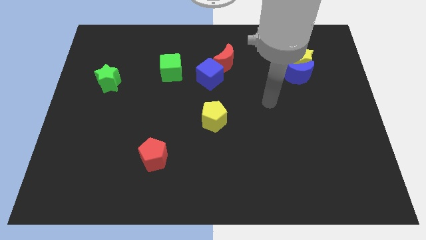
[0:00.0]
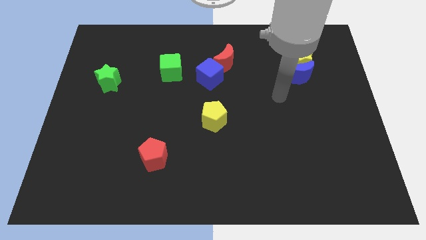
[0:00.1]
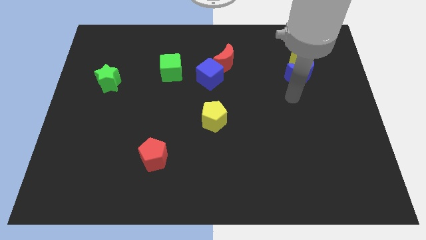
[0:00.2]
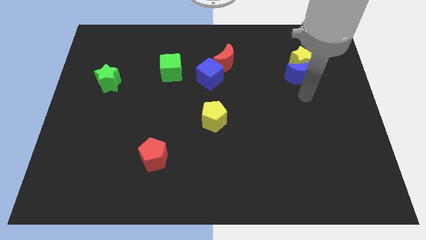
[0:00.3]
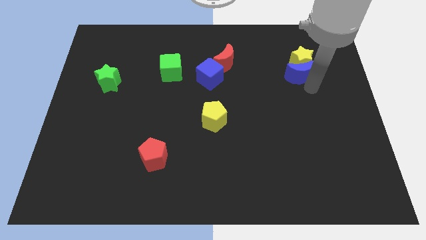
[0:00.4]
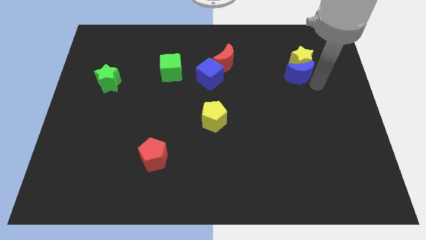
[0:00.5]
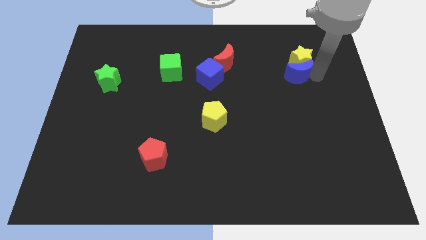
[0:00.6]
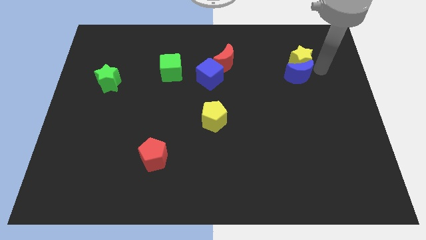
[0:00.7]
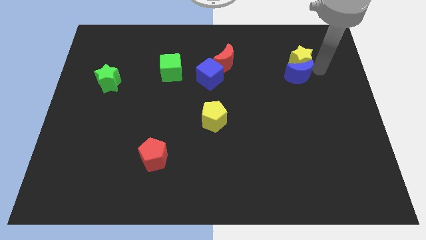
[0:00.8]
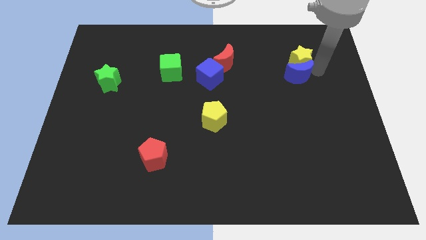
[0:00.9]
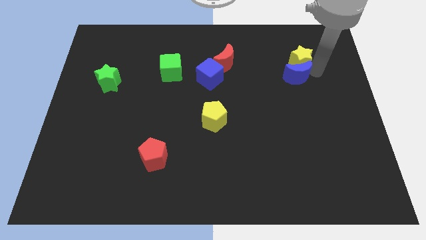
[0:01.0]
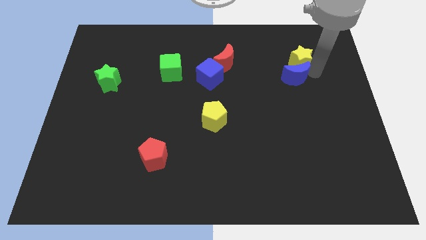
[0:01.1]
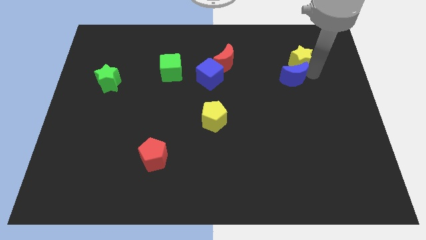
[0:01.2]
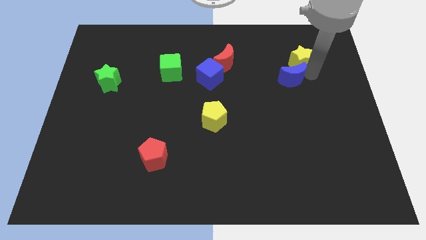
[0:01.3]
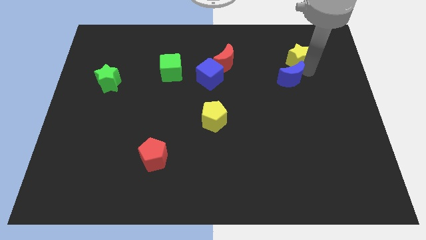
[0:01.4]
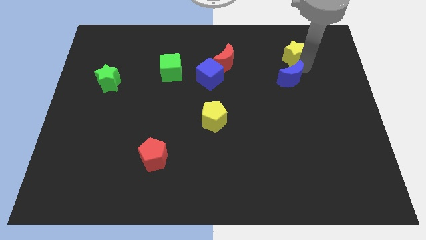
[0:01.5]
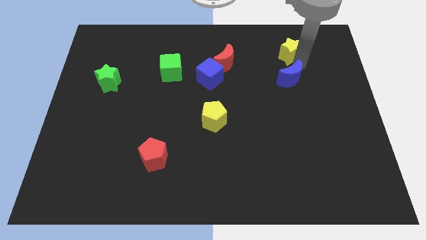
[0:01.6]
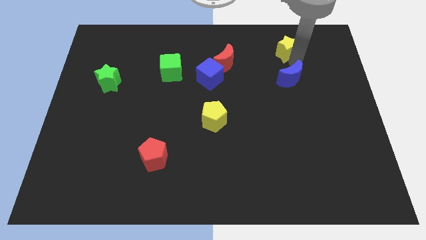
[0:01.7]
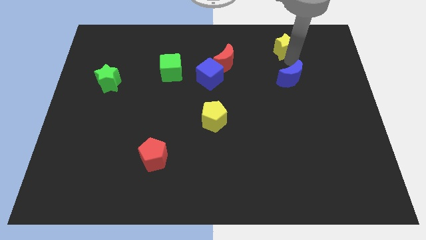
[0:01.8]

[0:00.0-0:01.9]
pull the blue moon apart from the yellow star

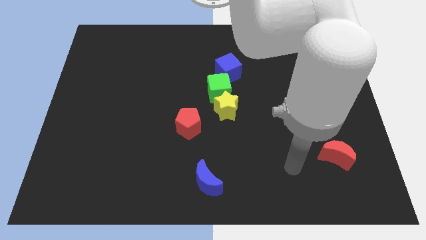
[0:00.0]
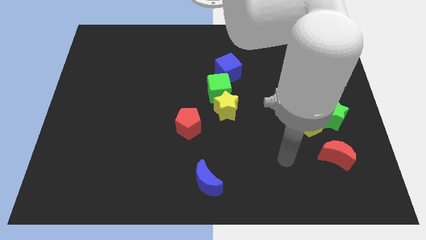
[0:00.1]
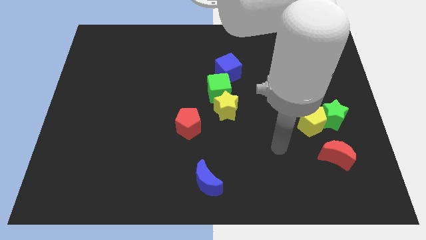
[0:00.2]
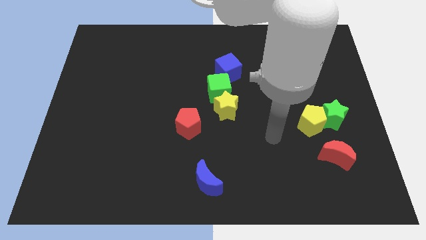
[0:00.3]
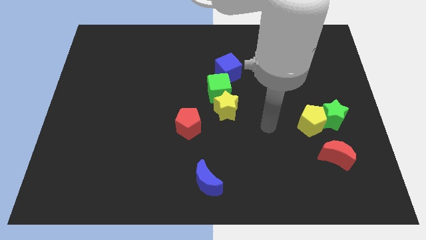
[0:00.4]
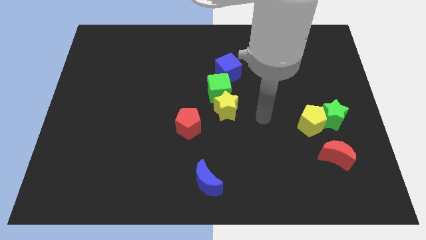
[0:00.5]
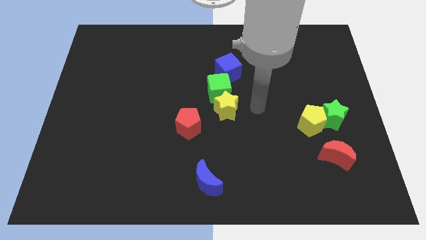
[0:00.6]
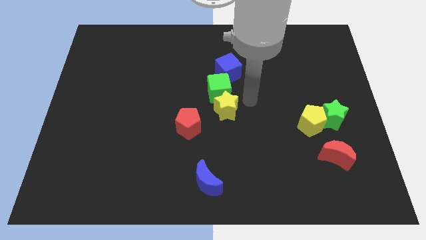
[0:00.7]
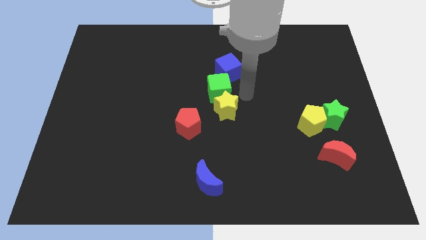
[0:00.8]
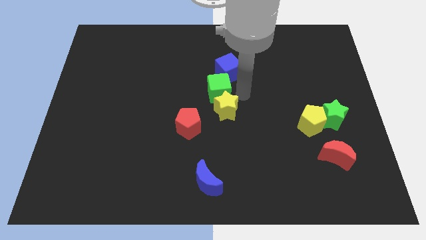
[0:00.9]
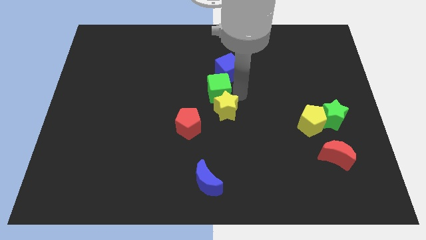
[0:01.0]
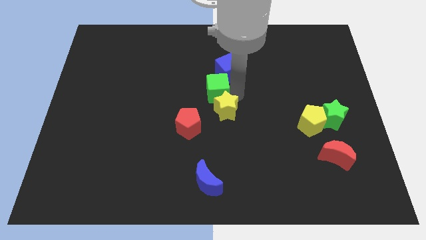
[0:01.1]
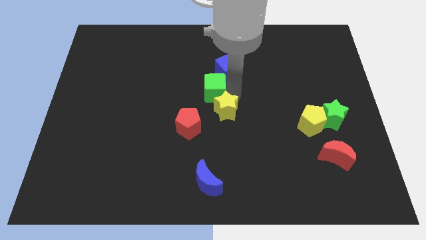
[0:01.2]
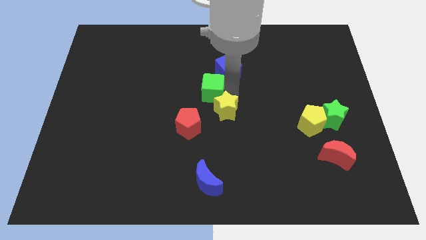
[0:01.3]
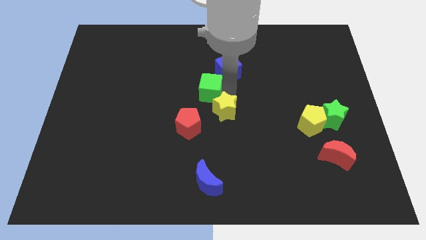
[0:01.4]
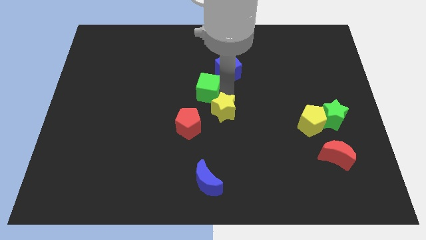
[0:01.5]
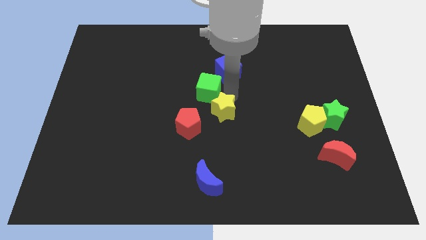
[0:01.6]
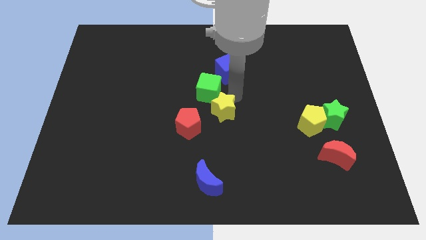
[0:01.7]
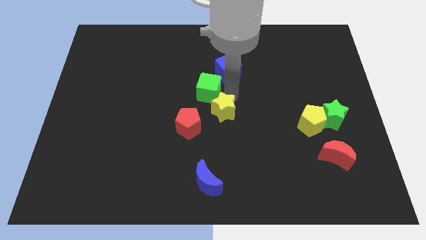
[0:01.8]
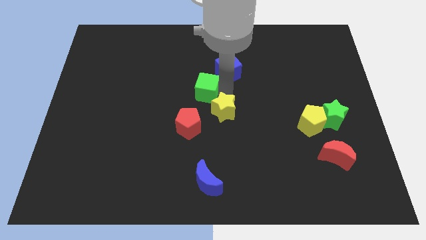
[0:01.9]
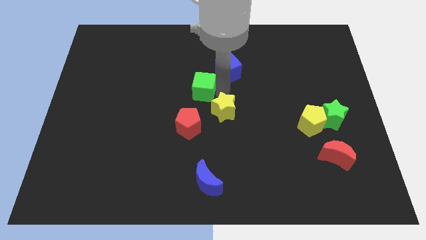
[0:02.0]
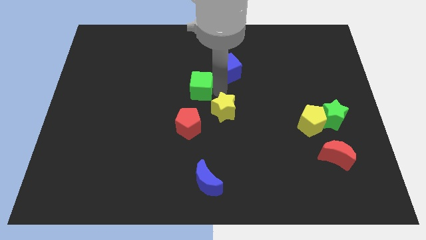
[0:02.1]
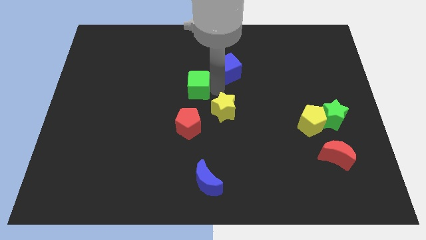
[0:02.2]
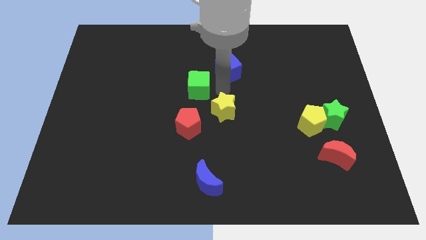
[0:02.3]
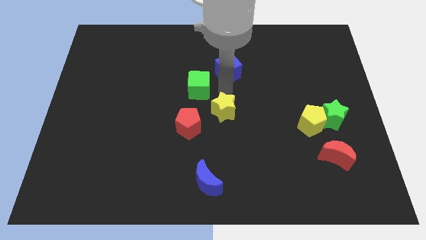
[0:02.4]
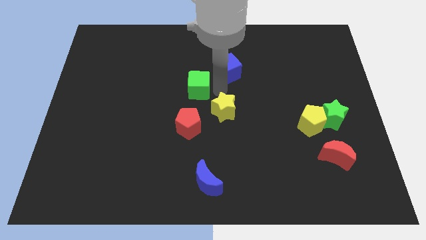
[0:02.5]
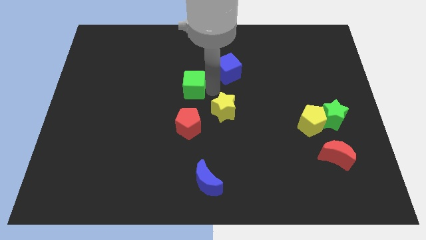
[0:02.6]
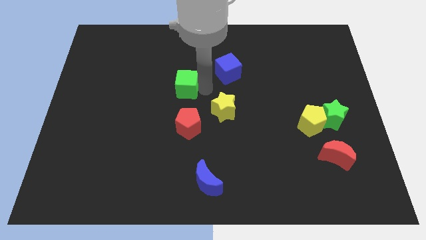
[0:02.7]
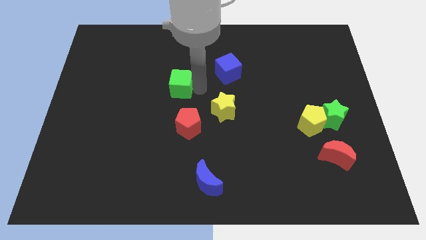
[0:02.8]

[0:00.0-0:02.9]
pull the green cube apart from the yellow star and blue cube

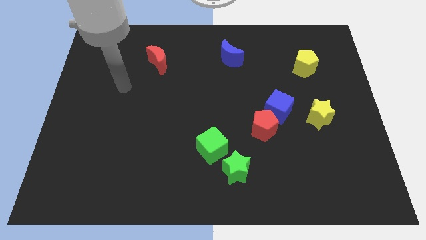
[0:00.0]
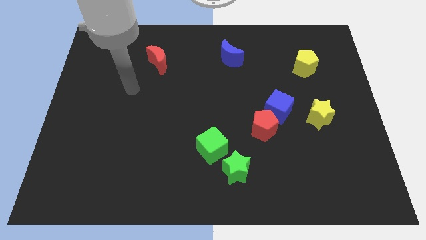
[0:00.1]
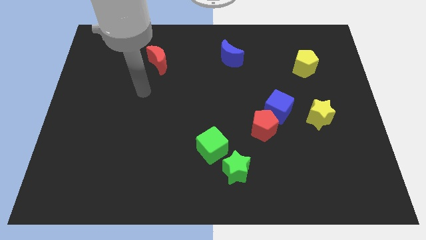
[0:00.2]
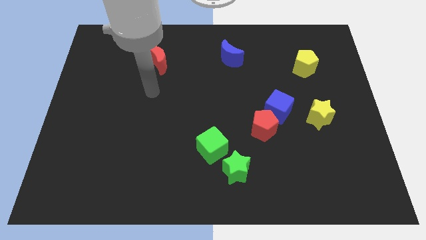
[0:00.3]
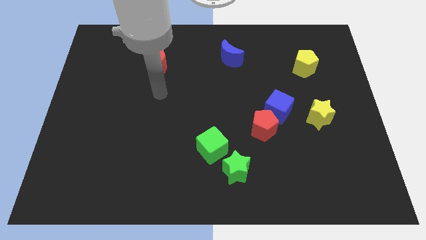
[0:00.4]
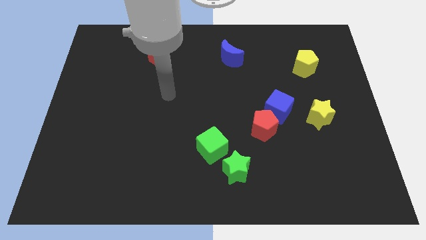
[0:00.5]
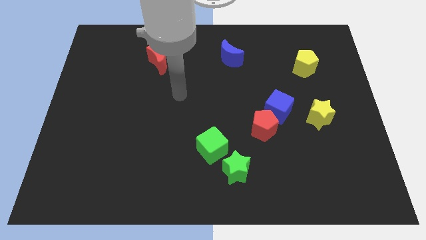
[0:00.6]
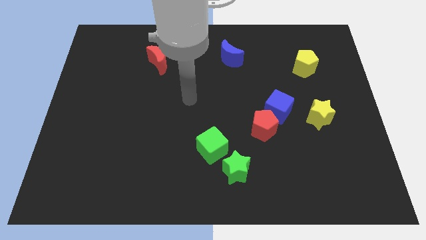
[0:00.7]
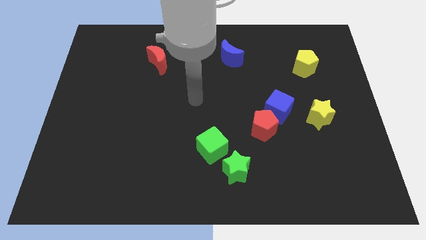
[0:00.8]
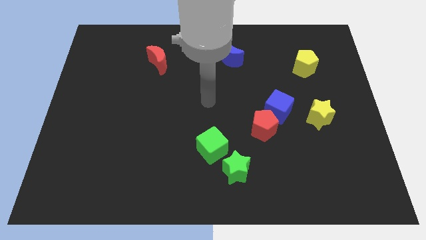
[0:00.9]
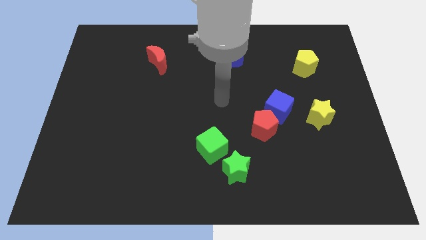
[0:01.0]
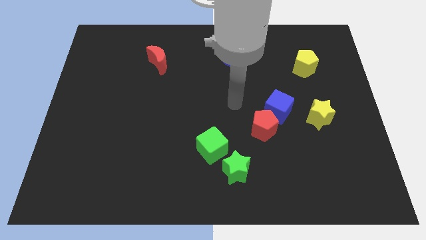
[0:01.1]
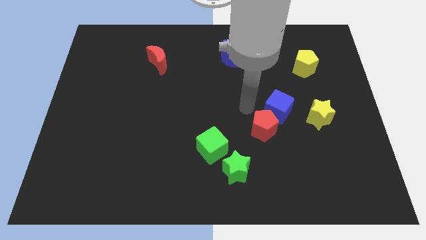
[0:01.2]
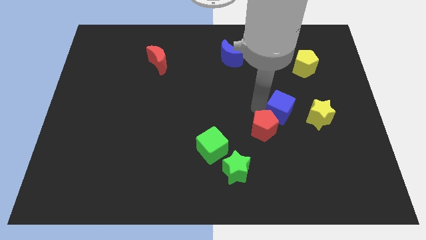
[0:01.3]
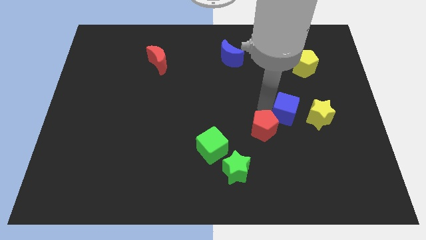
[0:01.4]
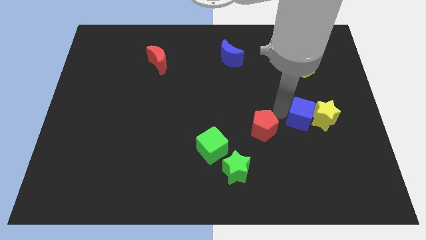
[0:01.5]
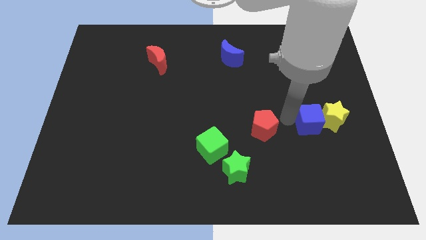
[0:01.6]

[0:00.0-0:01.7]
move the red pentagon away from the blue cube

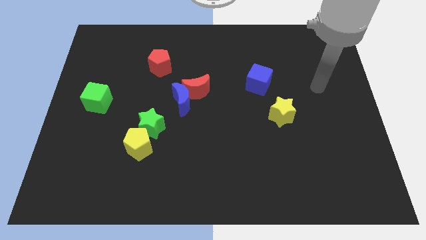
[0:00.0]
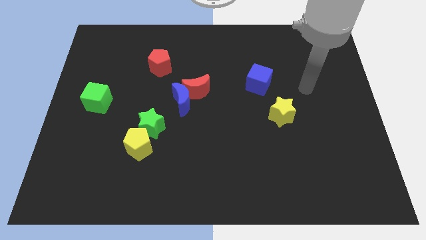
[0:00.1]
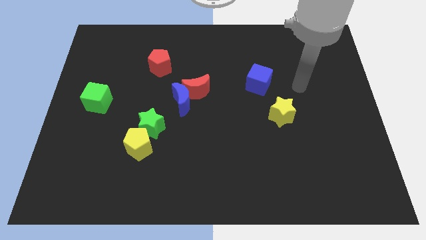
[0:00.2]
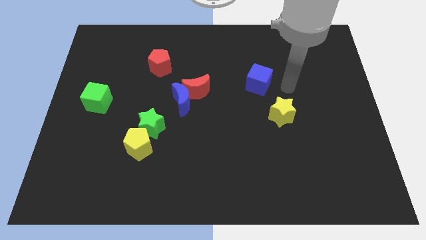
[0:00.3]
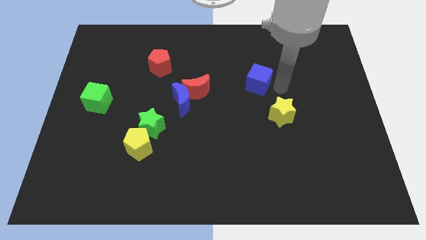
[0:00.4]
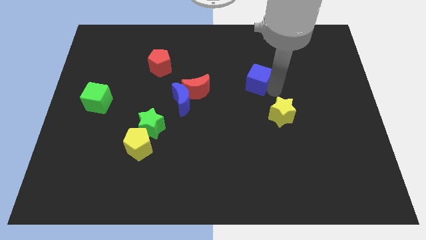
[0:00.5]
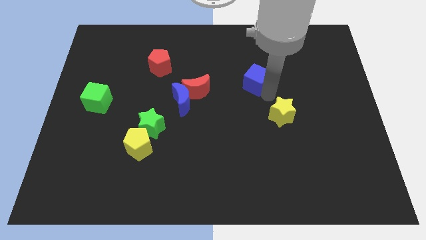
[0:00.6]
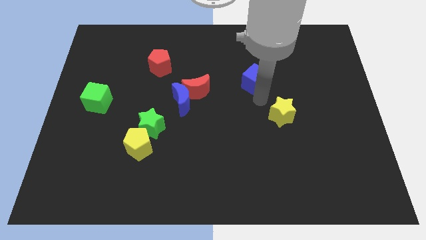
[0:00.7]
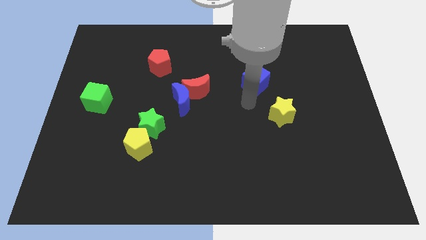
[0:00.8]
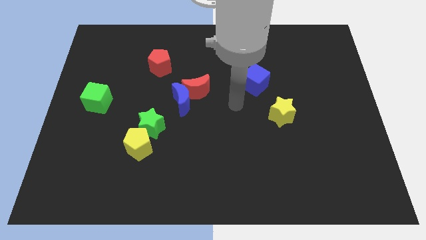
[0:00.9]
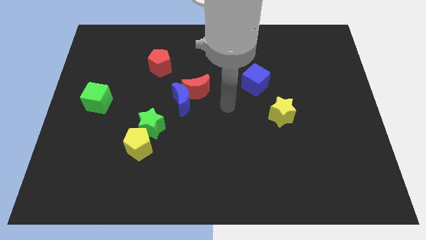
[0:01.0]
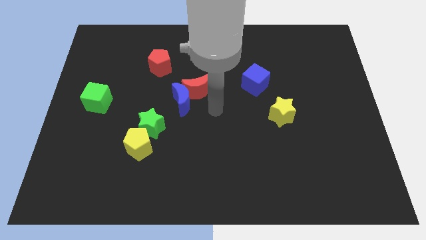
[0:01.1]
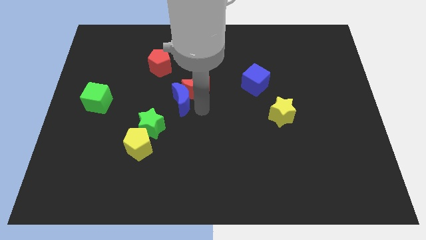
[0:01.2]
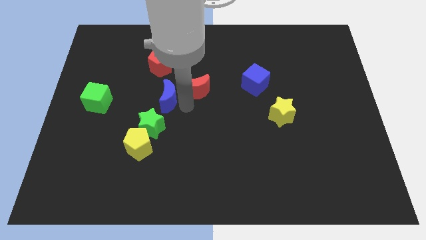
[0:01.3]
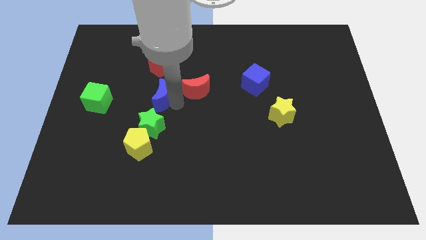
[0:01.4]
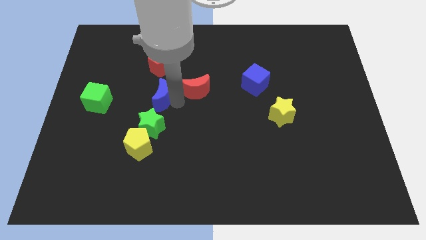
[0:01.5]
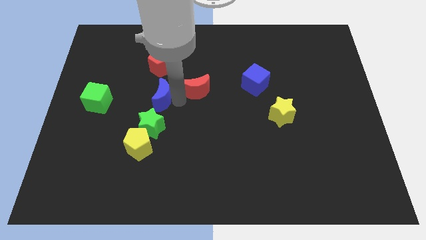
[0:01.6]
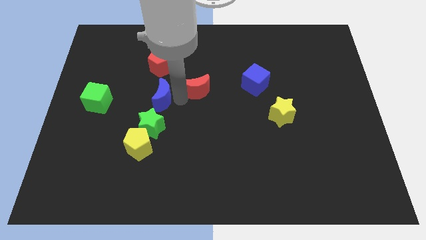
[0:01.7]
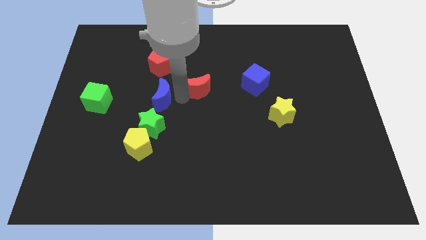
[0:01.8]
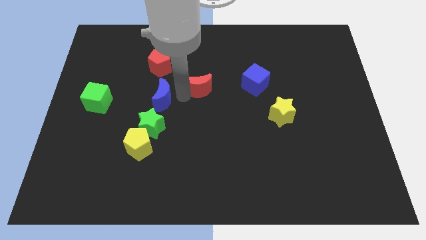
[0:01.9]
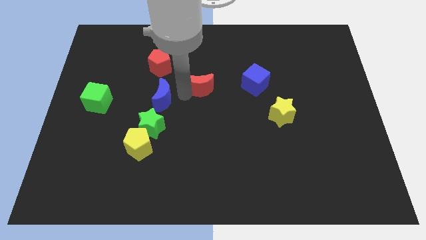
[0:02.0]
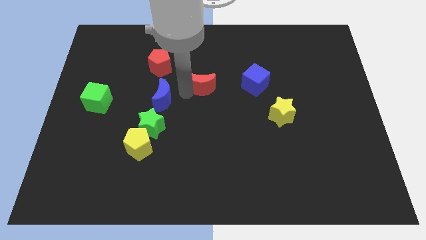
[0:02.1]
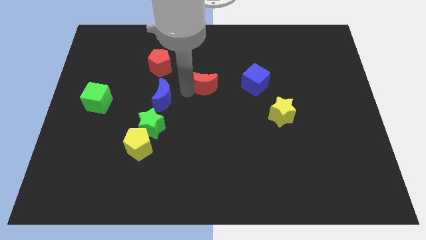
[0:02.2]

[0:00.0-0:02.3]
separate the red moon from the blue moon

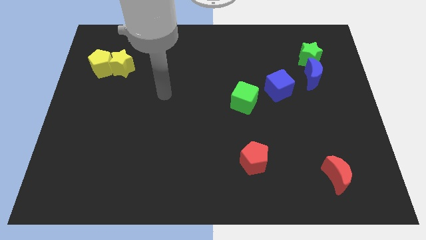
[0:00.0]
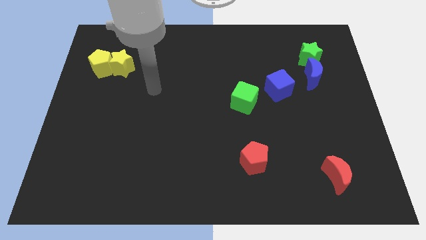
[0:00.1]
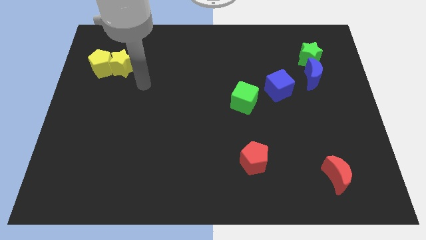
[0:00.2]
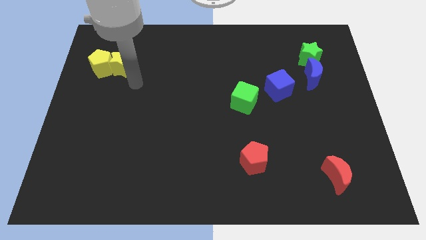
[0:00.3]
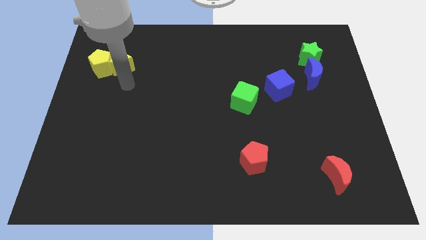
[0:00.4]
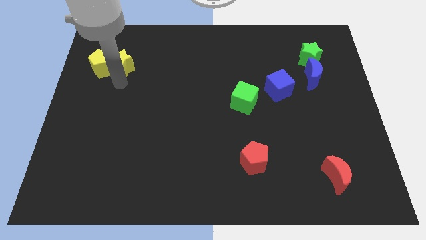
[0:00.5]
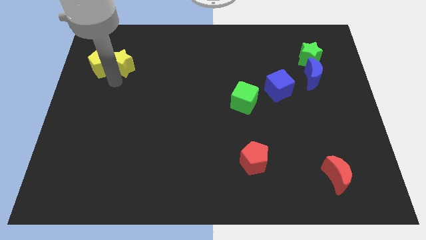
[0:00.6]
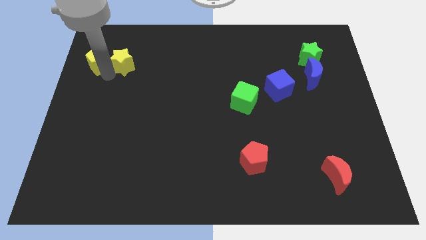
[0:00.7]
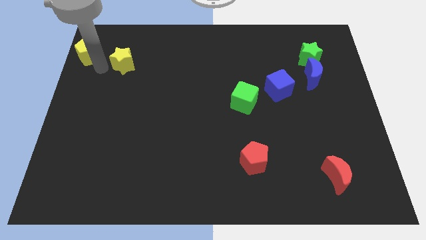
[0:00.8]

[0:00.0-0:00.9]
separate the yellow star from the yellow pentagon
